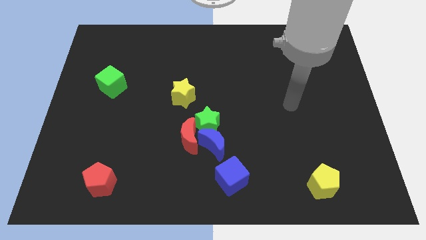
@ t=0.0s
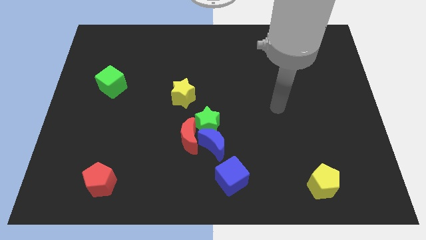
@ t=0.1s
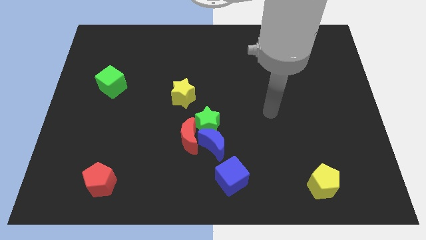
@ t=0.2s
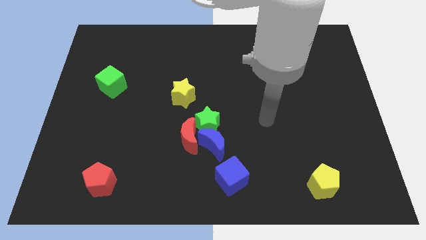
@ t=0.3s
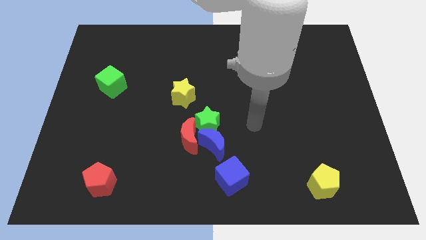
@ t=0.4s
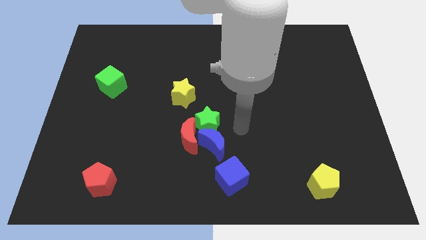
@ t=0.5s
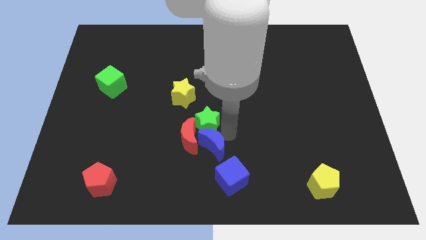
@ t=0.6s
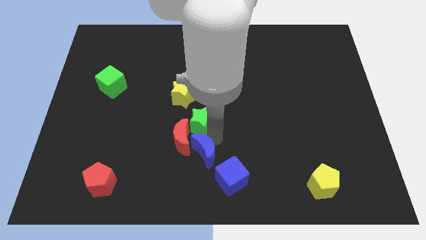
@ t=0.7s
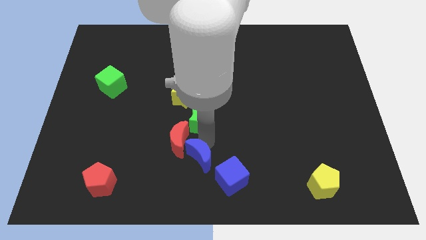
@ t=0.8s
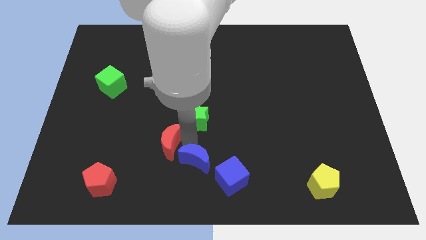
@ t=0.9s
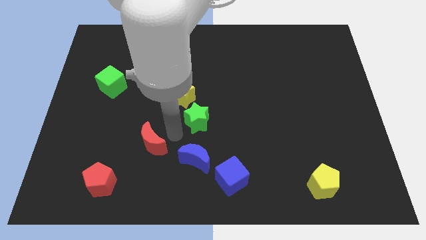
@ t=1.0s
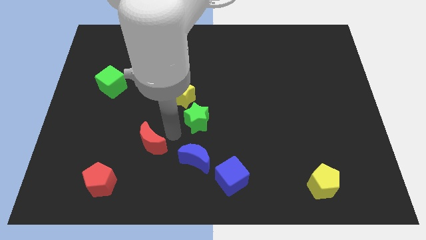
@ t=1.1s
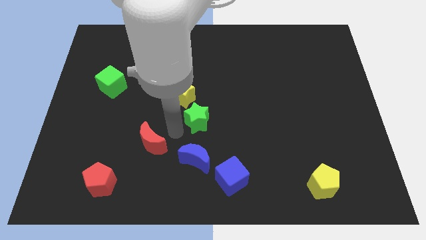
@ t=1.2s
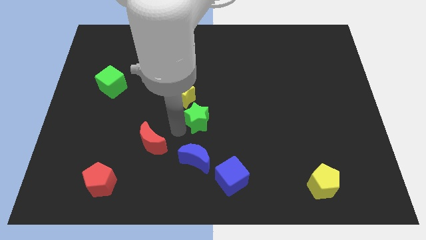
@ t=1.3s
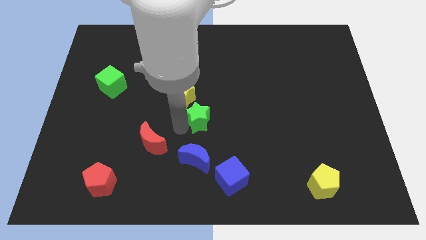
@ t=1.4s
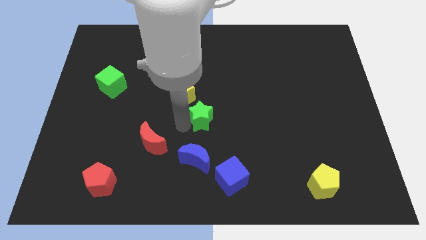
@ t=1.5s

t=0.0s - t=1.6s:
separate the green star from the blue moon and red moon

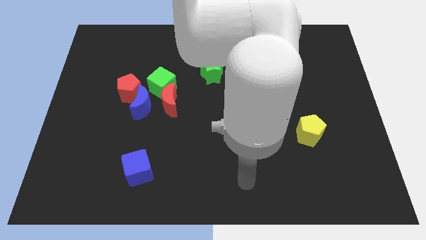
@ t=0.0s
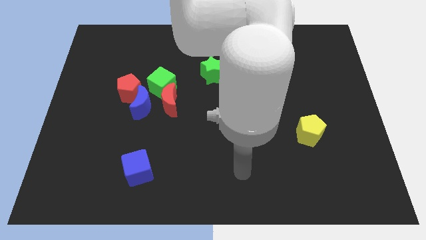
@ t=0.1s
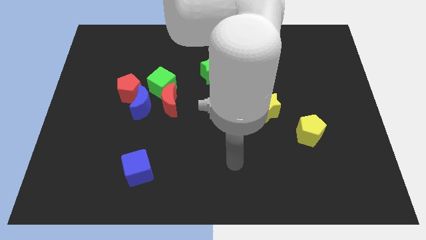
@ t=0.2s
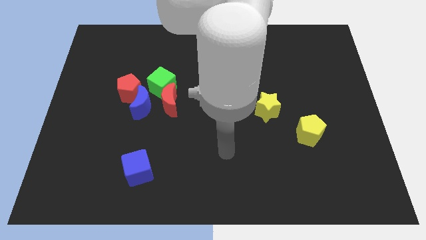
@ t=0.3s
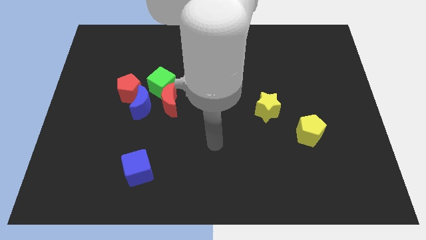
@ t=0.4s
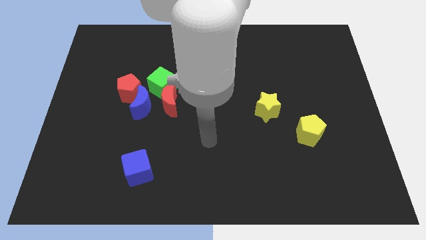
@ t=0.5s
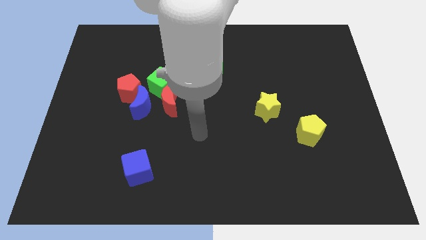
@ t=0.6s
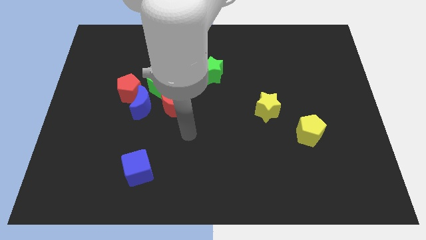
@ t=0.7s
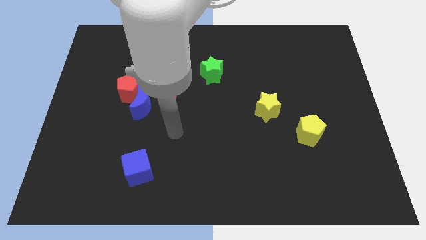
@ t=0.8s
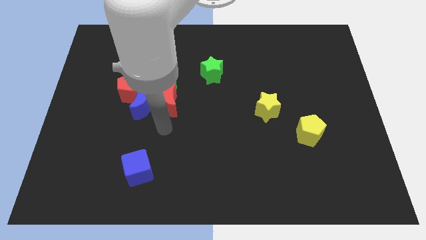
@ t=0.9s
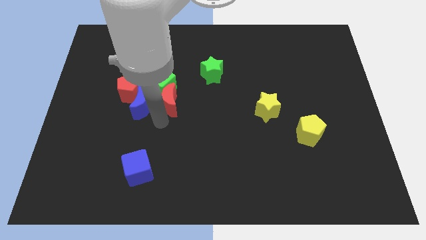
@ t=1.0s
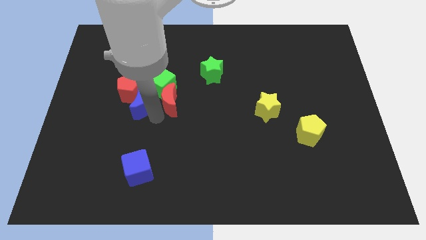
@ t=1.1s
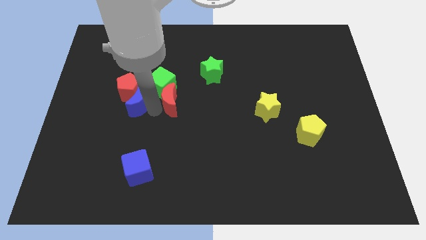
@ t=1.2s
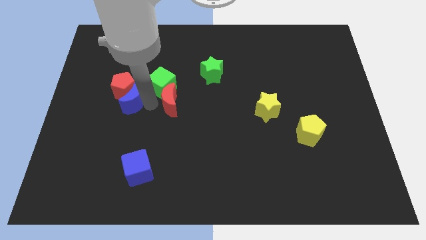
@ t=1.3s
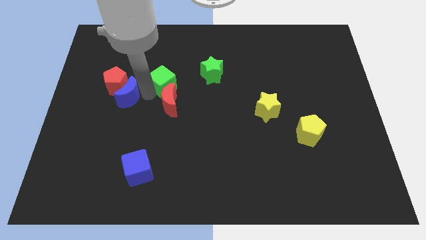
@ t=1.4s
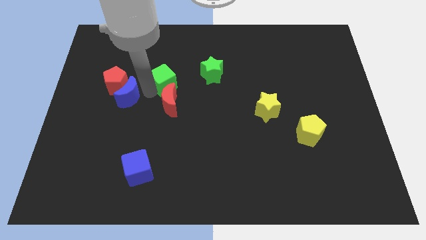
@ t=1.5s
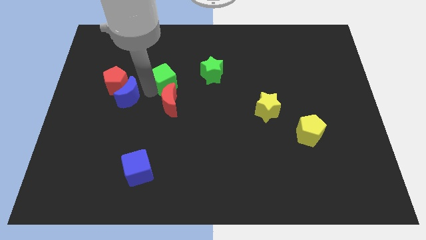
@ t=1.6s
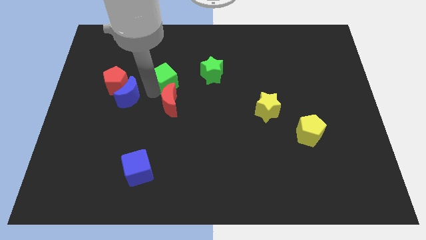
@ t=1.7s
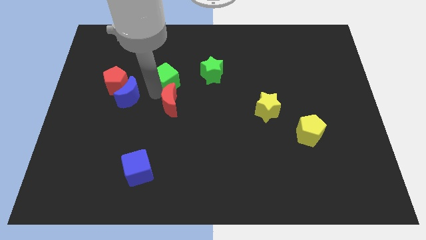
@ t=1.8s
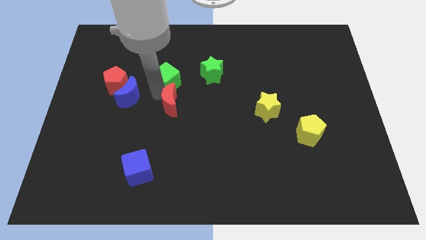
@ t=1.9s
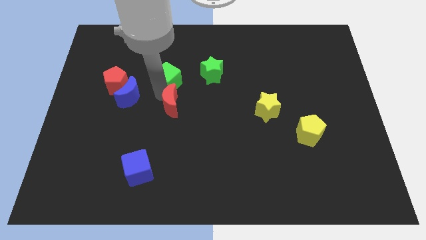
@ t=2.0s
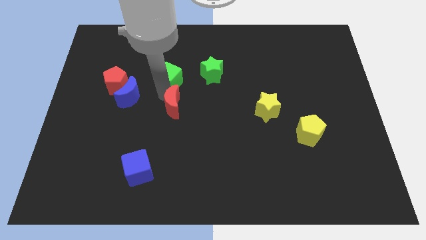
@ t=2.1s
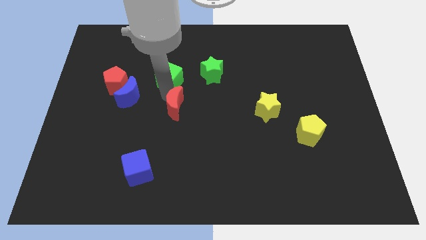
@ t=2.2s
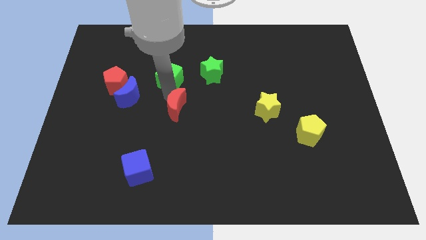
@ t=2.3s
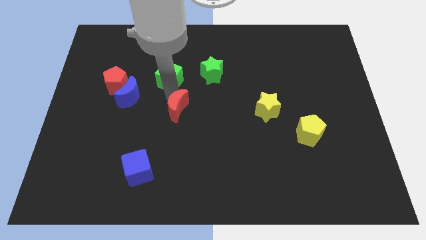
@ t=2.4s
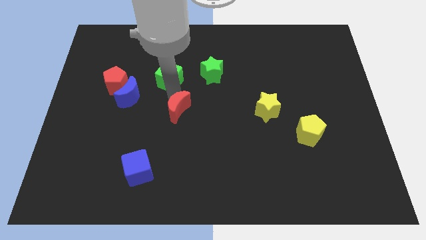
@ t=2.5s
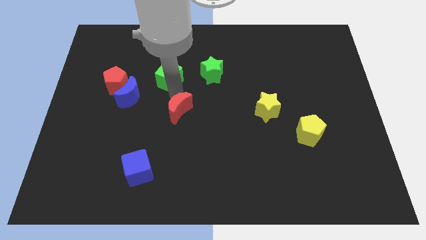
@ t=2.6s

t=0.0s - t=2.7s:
pull the red moon apart from the green cube and blue moon

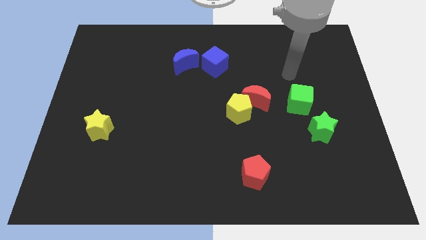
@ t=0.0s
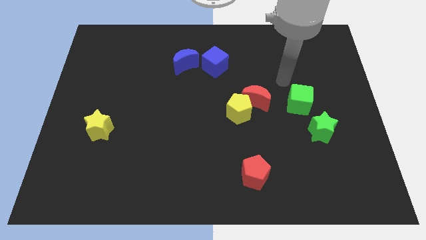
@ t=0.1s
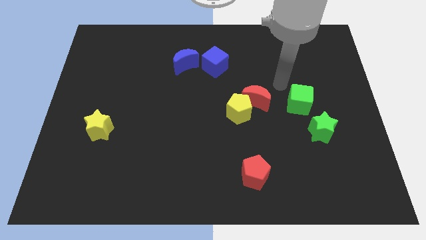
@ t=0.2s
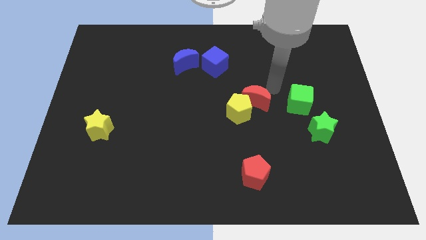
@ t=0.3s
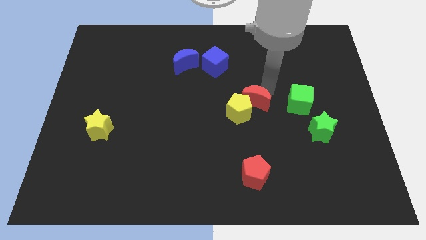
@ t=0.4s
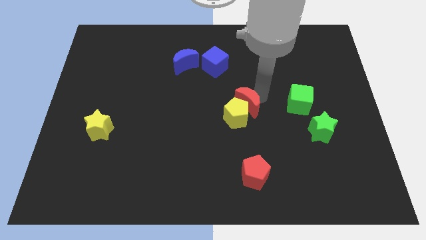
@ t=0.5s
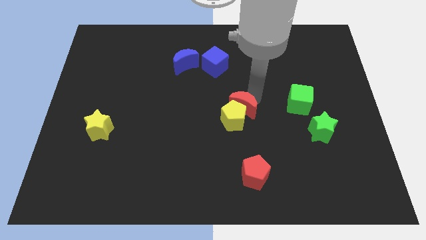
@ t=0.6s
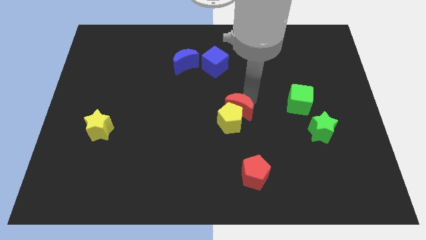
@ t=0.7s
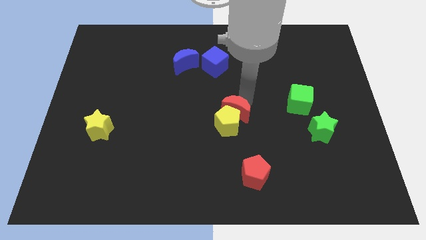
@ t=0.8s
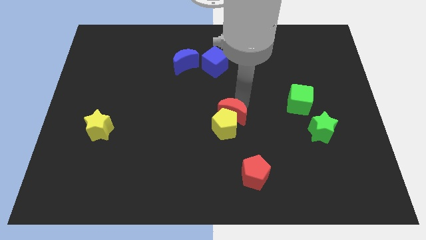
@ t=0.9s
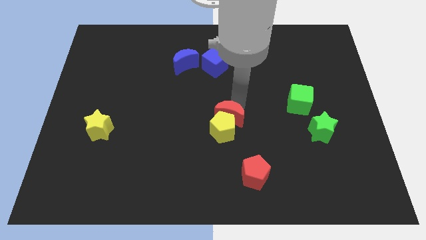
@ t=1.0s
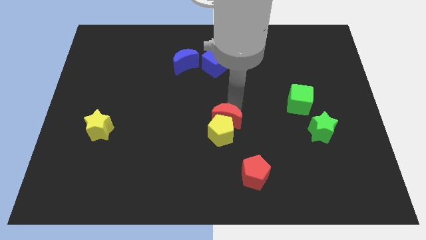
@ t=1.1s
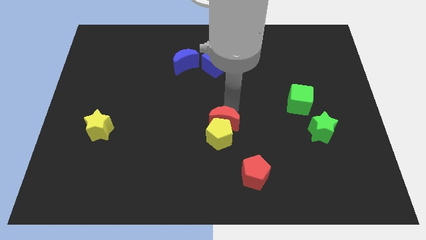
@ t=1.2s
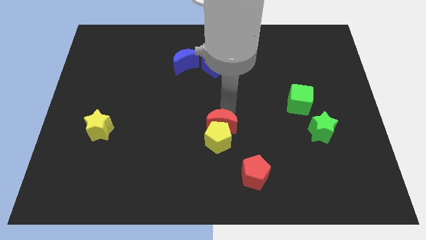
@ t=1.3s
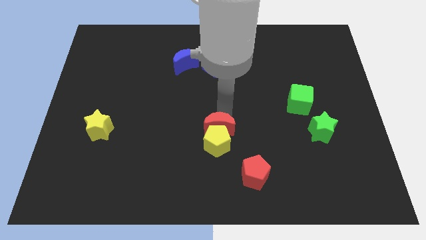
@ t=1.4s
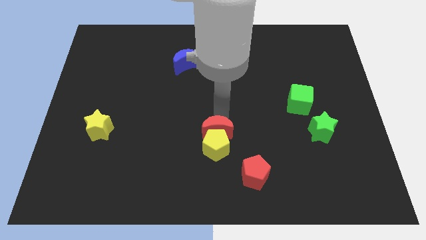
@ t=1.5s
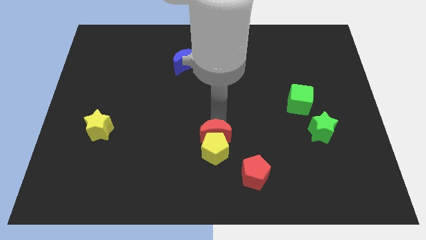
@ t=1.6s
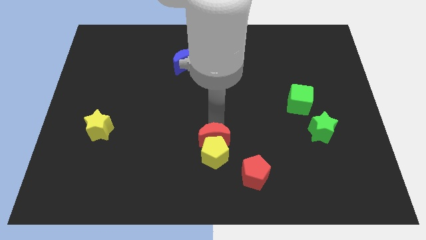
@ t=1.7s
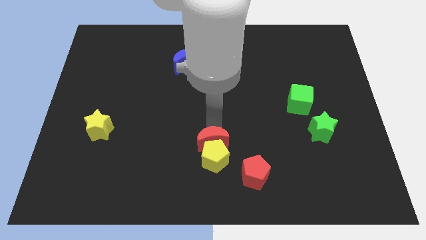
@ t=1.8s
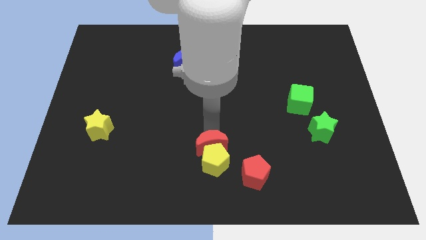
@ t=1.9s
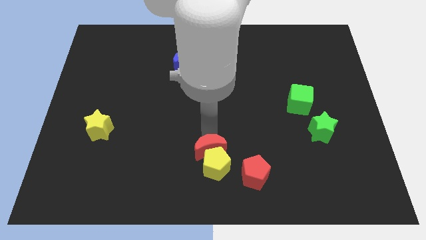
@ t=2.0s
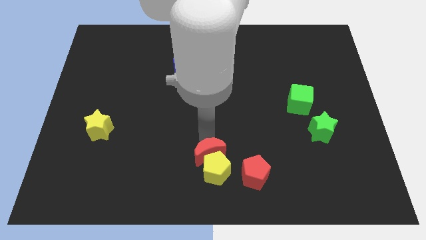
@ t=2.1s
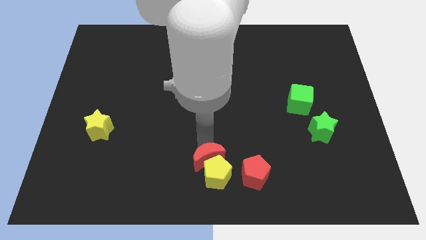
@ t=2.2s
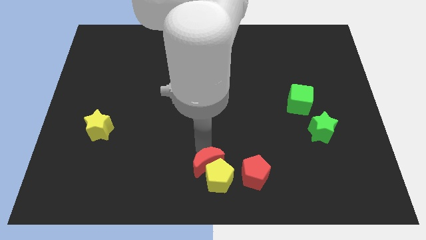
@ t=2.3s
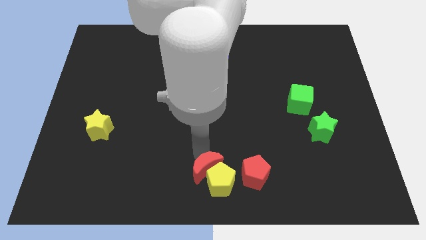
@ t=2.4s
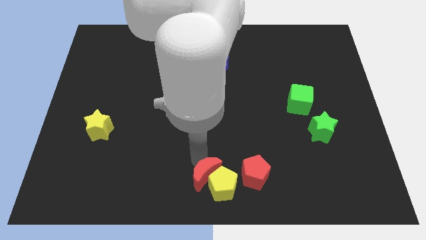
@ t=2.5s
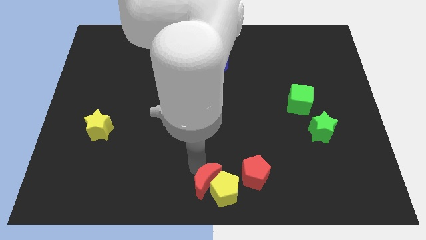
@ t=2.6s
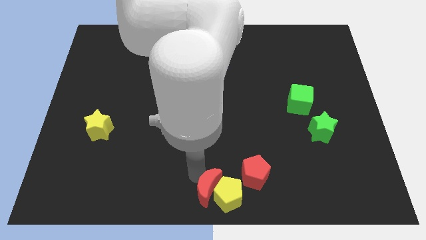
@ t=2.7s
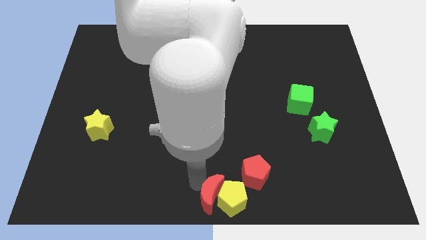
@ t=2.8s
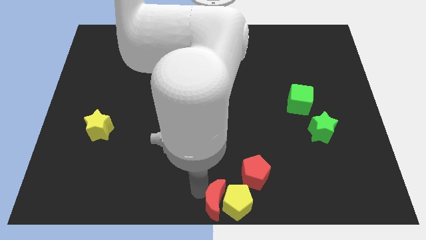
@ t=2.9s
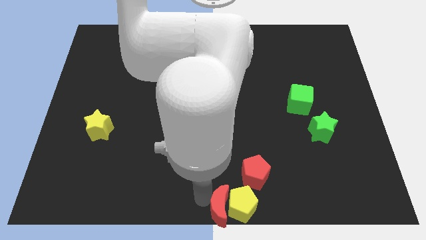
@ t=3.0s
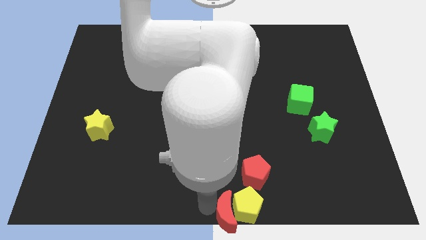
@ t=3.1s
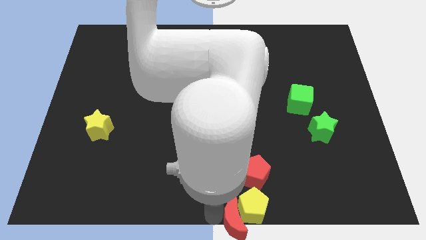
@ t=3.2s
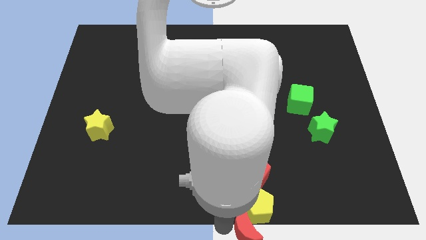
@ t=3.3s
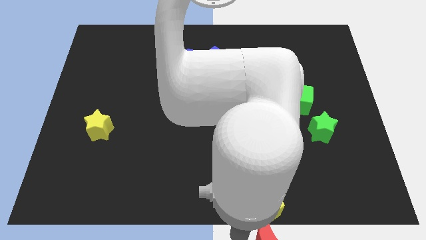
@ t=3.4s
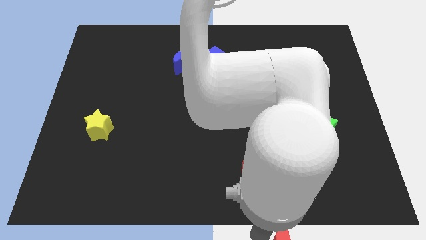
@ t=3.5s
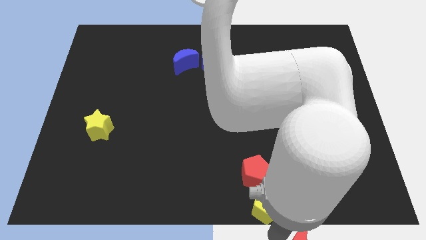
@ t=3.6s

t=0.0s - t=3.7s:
pull the yellow pentagon apart from the red moon

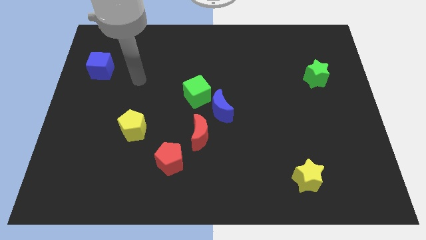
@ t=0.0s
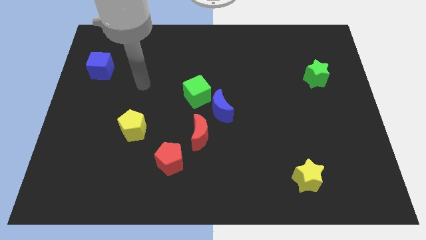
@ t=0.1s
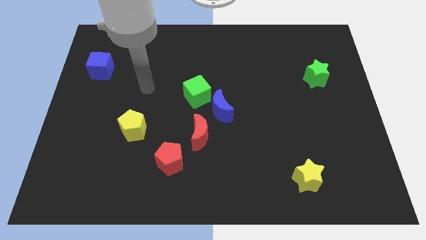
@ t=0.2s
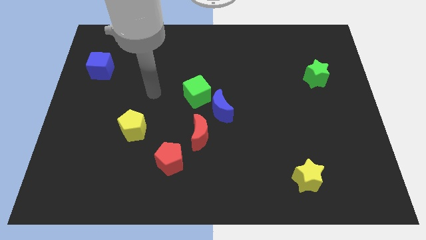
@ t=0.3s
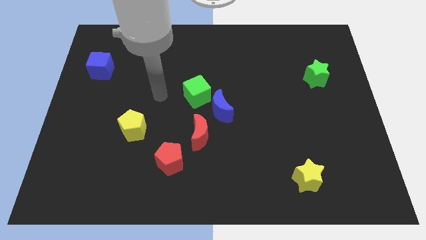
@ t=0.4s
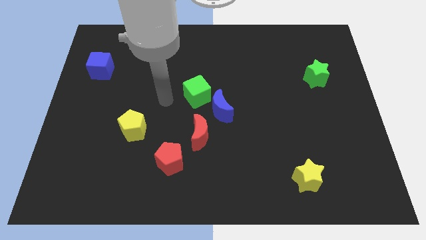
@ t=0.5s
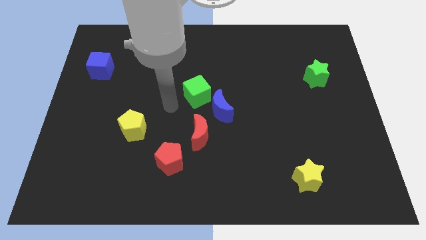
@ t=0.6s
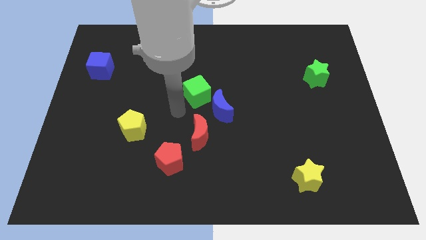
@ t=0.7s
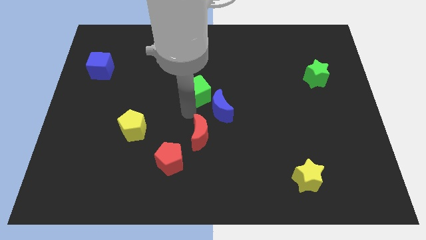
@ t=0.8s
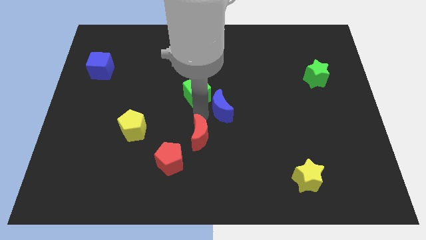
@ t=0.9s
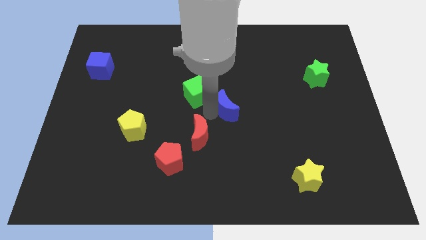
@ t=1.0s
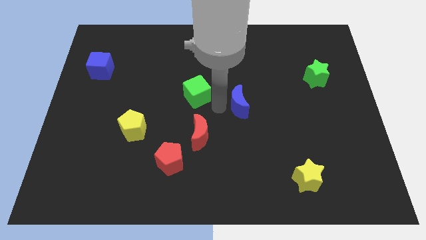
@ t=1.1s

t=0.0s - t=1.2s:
separate the green cube from the blue moon
